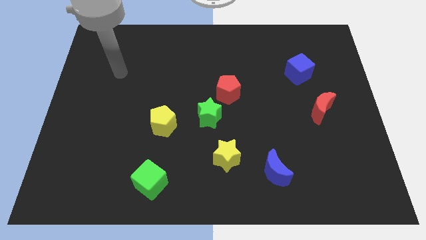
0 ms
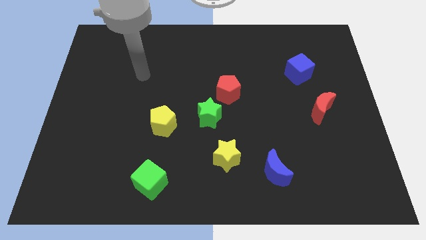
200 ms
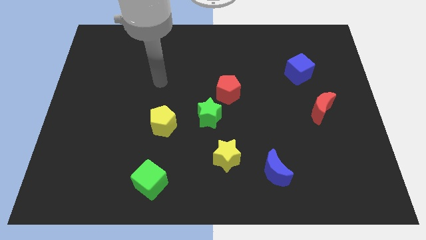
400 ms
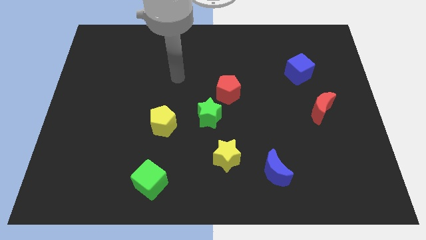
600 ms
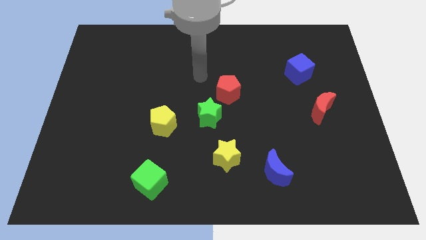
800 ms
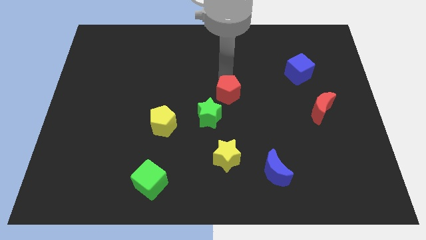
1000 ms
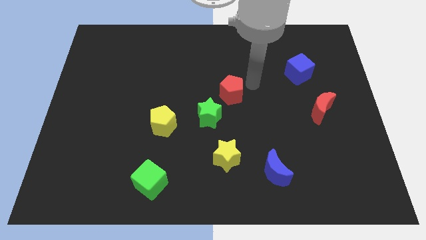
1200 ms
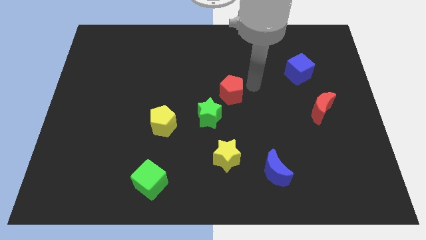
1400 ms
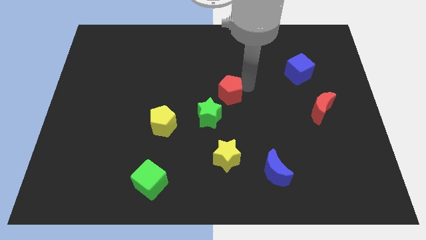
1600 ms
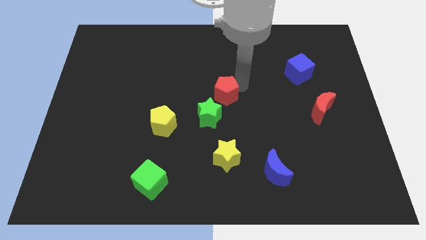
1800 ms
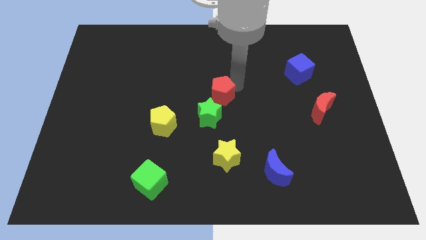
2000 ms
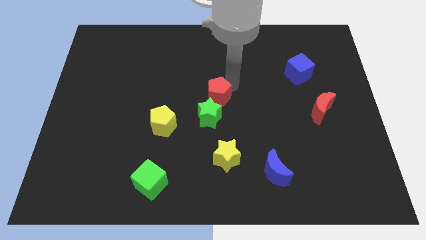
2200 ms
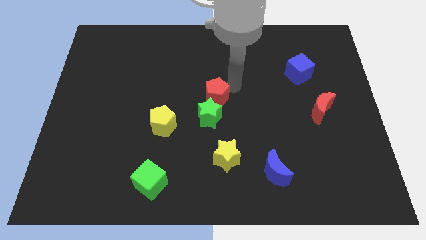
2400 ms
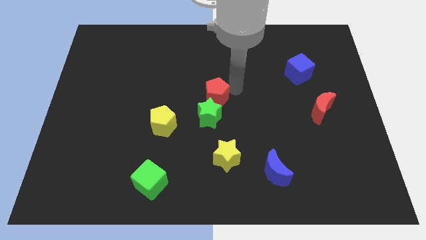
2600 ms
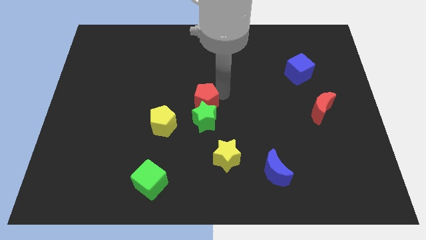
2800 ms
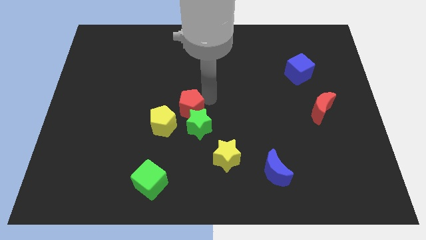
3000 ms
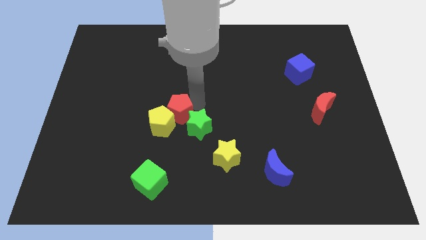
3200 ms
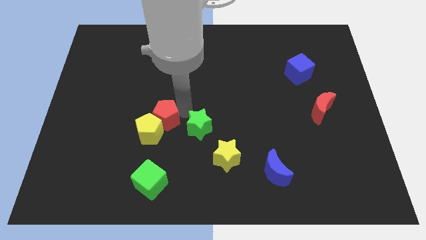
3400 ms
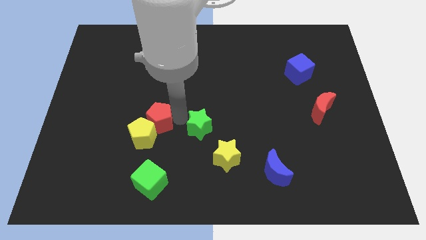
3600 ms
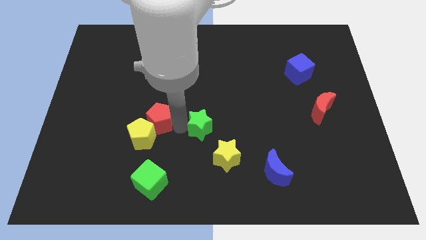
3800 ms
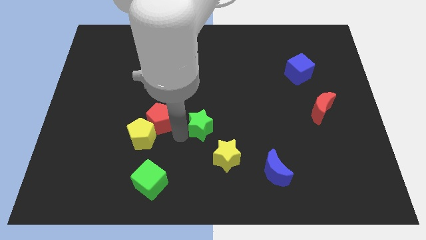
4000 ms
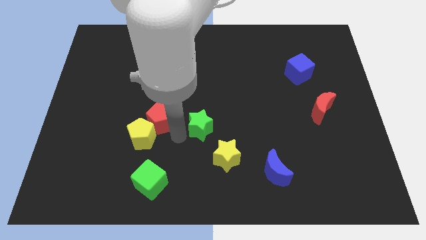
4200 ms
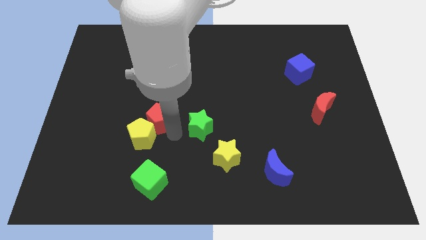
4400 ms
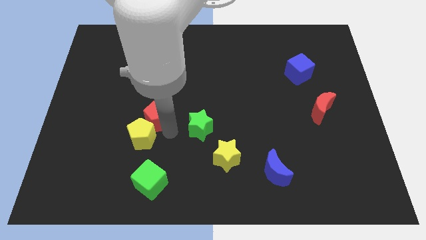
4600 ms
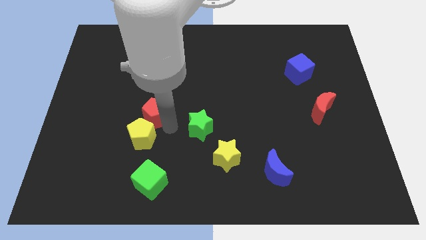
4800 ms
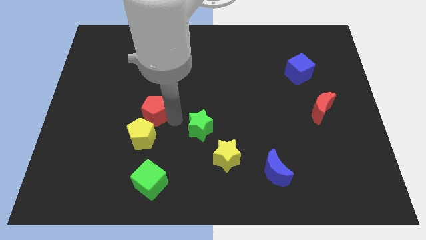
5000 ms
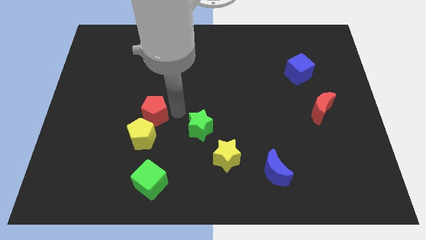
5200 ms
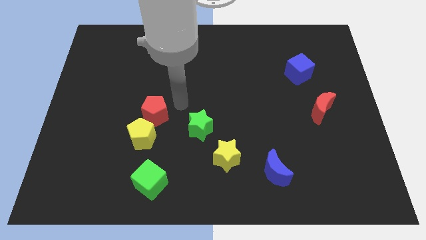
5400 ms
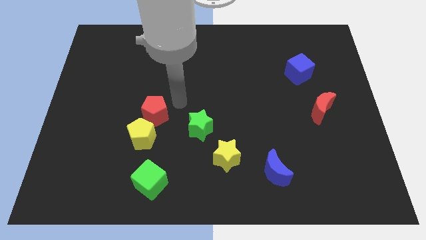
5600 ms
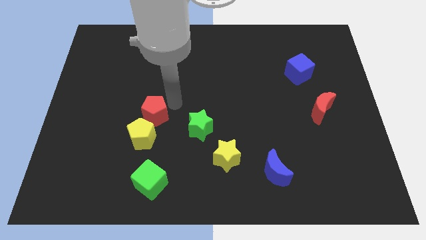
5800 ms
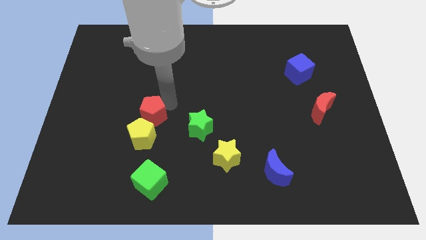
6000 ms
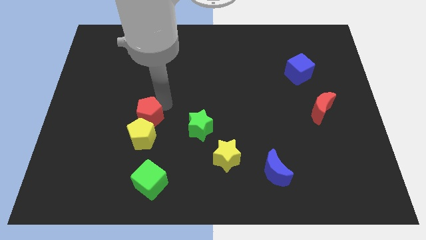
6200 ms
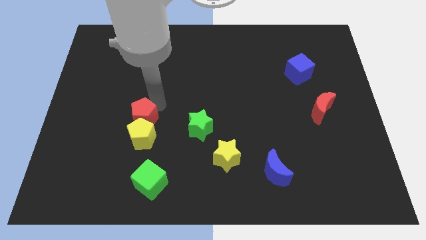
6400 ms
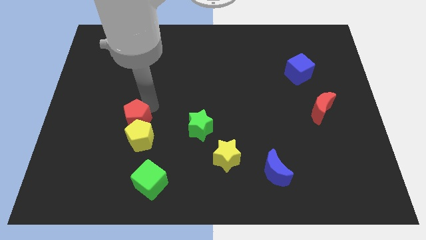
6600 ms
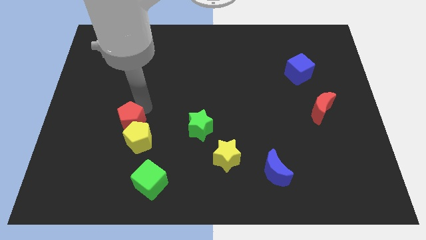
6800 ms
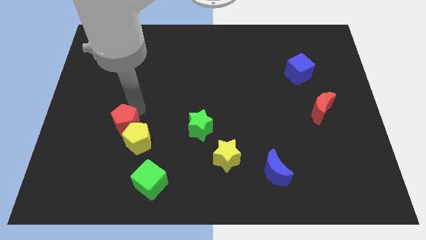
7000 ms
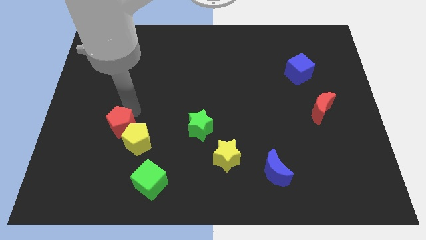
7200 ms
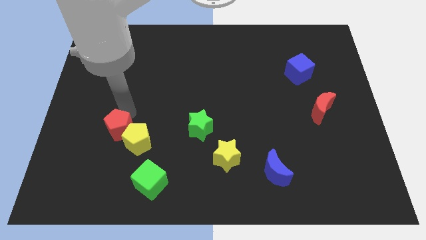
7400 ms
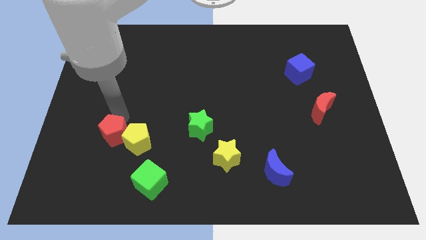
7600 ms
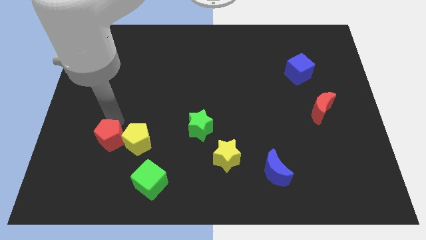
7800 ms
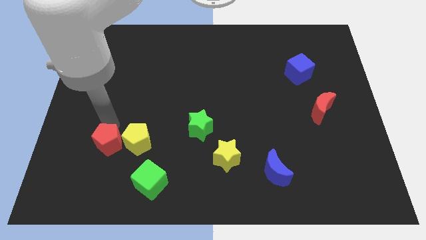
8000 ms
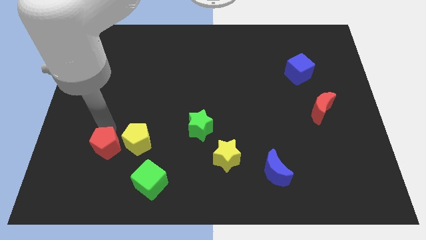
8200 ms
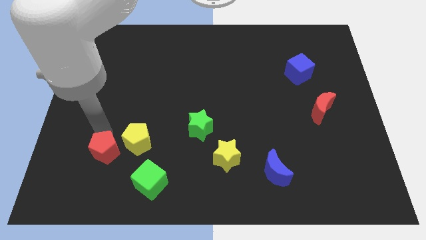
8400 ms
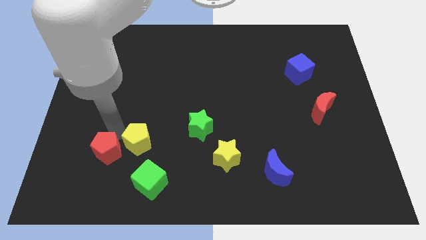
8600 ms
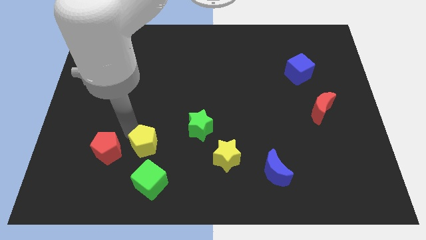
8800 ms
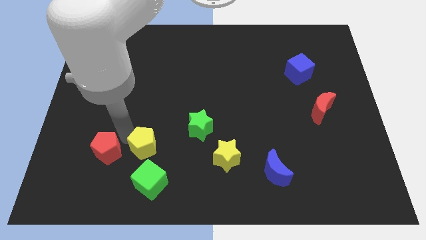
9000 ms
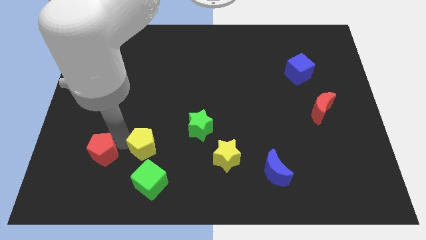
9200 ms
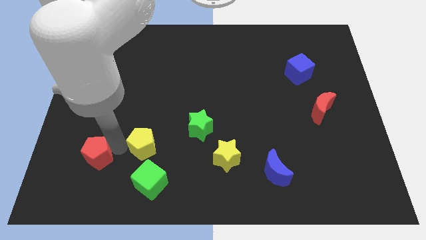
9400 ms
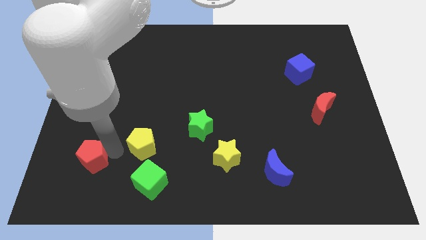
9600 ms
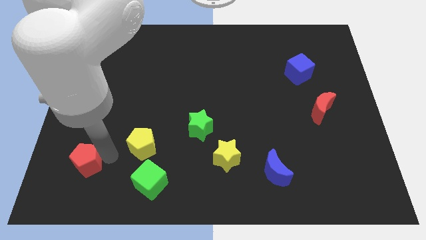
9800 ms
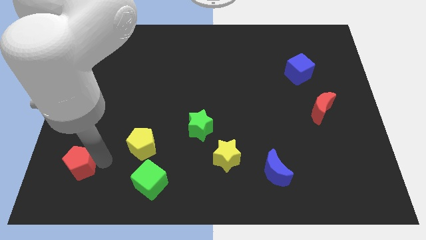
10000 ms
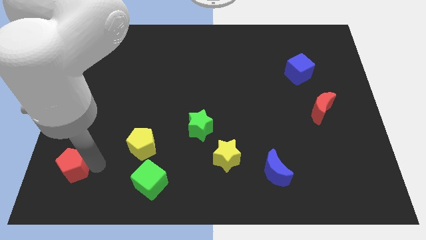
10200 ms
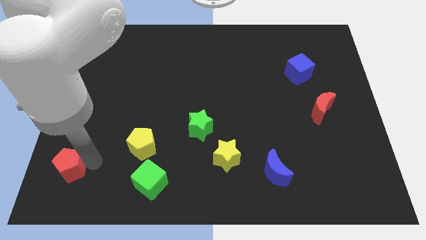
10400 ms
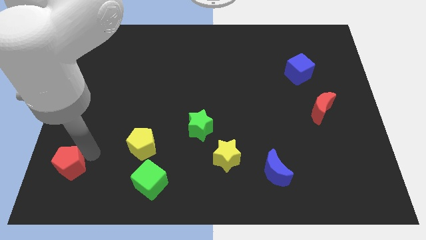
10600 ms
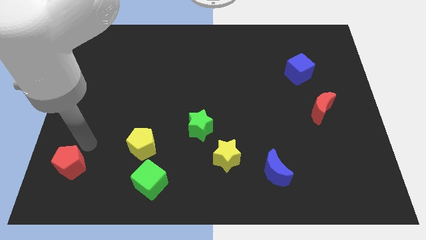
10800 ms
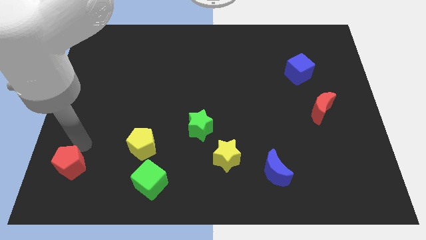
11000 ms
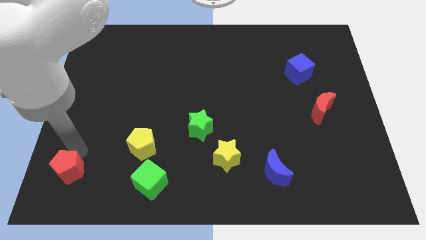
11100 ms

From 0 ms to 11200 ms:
slide the red pentagon to the lower left corner

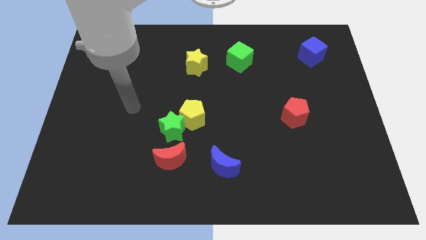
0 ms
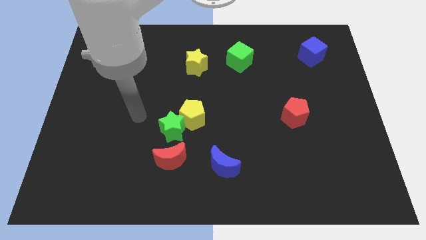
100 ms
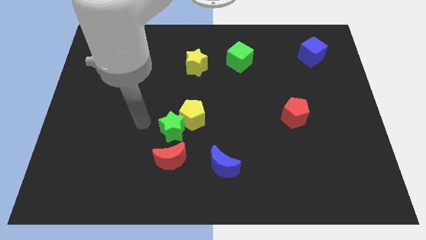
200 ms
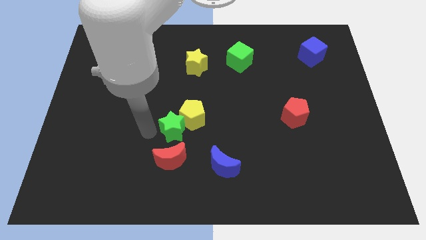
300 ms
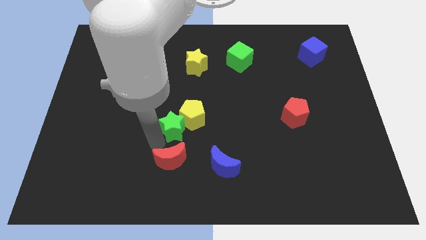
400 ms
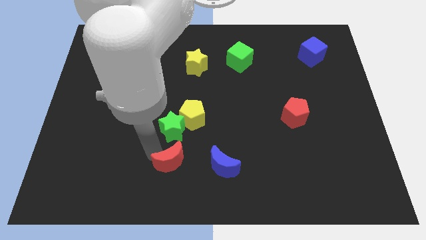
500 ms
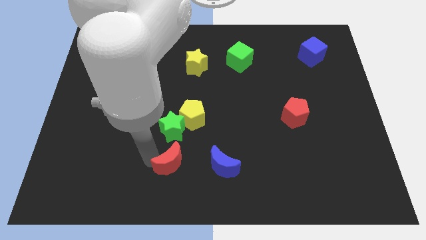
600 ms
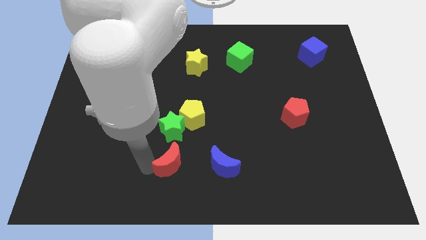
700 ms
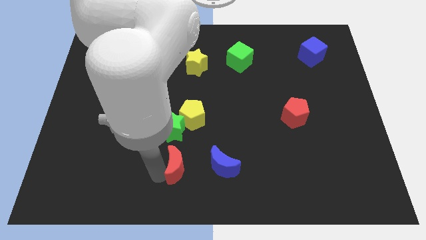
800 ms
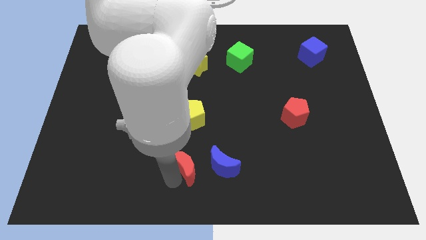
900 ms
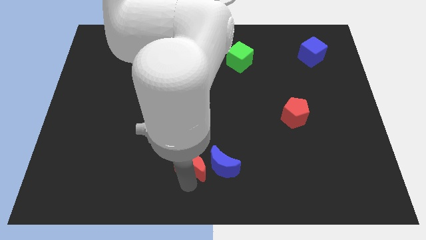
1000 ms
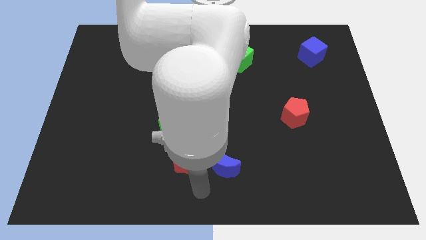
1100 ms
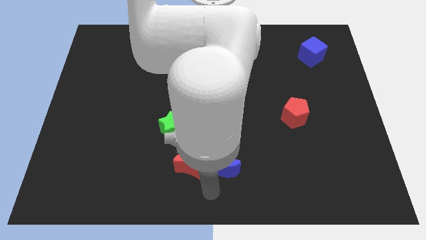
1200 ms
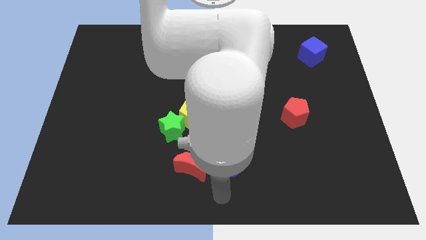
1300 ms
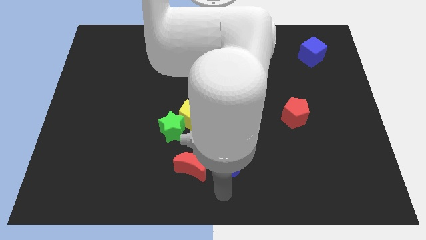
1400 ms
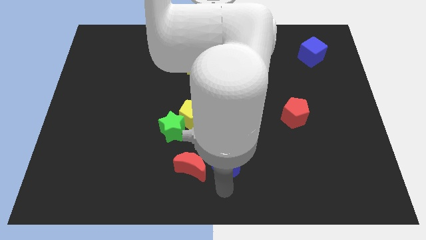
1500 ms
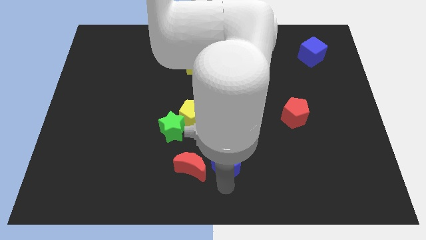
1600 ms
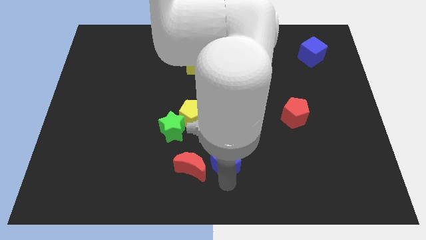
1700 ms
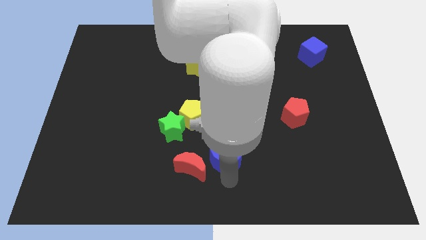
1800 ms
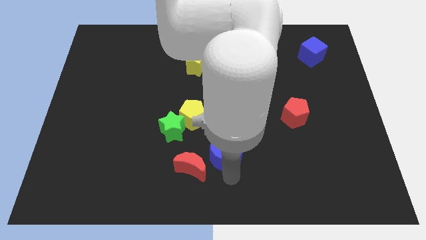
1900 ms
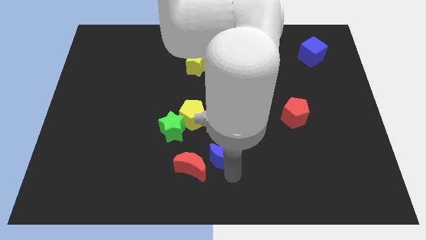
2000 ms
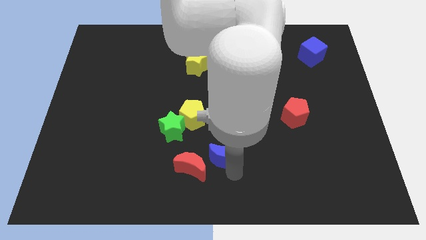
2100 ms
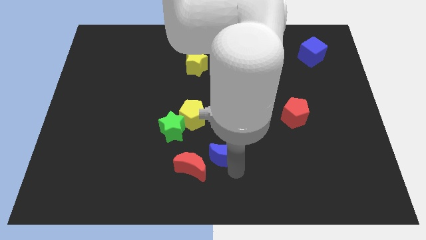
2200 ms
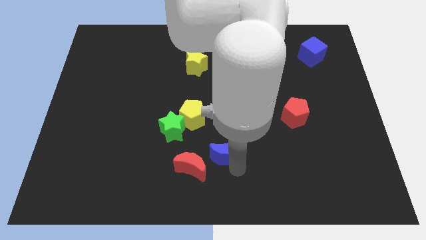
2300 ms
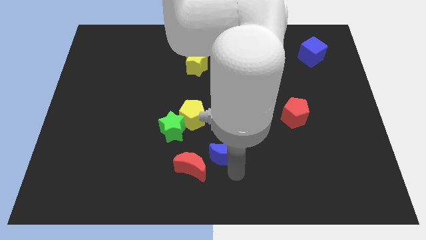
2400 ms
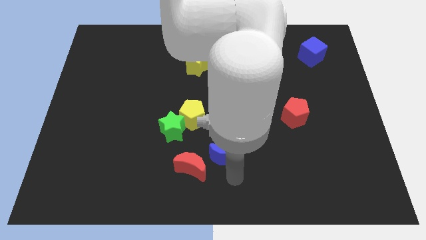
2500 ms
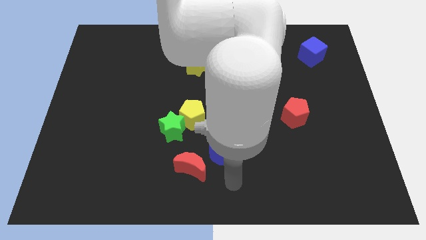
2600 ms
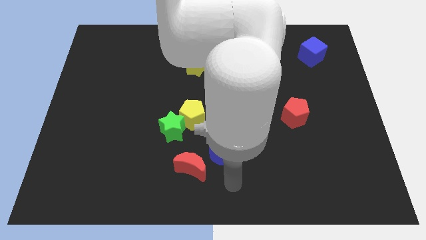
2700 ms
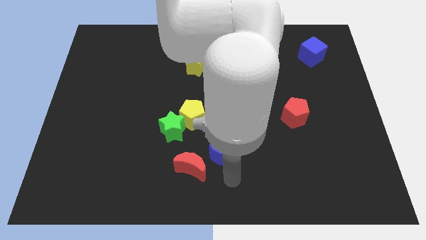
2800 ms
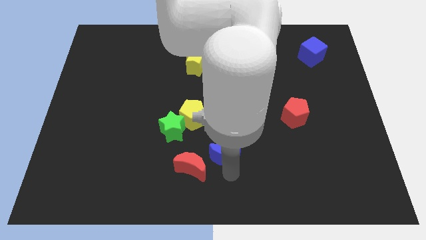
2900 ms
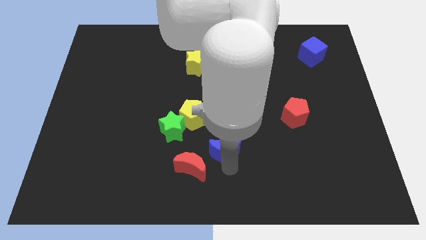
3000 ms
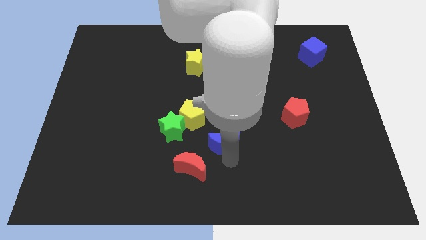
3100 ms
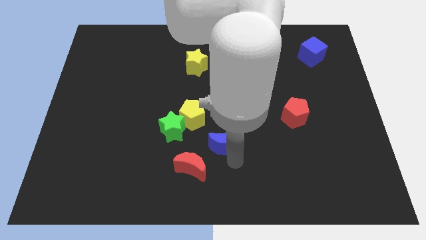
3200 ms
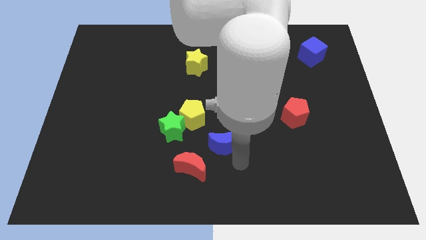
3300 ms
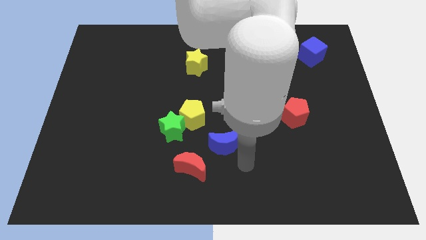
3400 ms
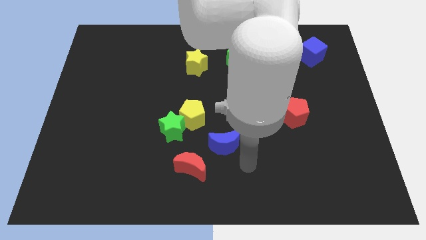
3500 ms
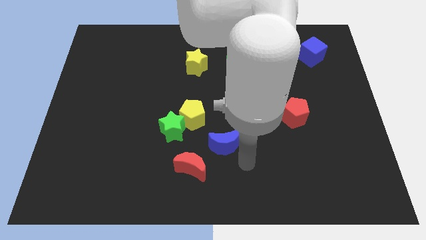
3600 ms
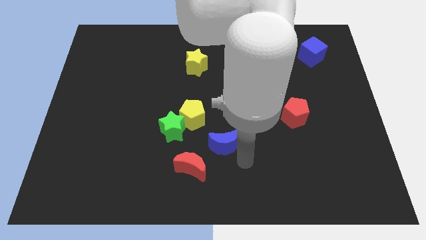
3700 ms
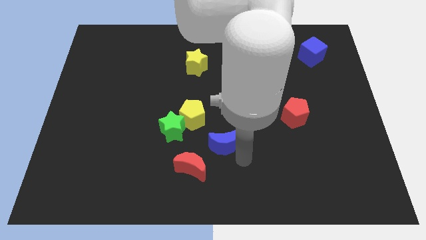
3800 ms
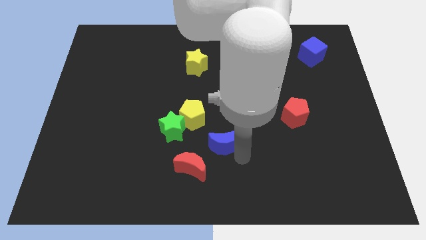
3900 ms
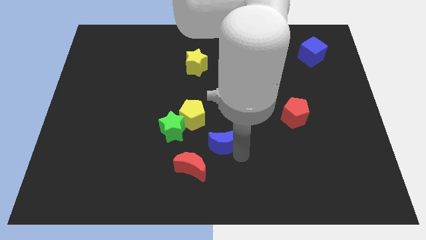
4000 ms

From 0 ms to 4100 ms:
push the blue moon to the center
